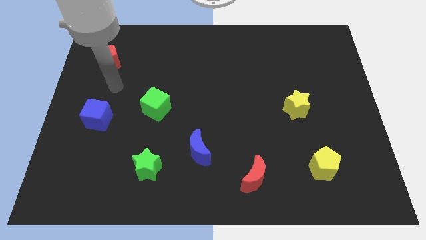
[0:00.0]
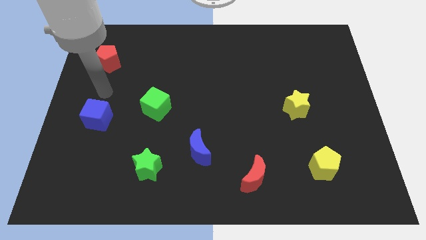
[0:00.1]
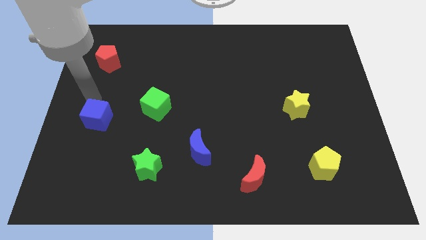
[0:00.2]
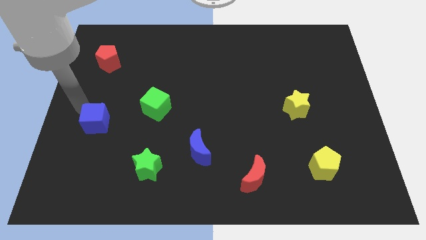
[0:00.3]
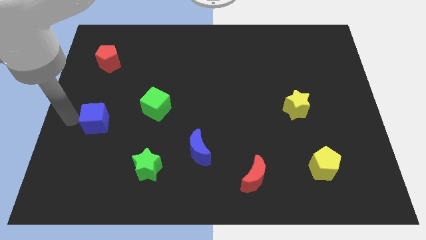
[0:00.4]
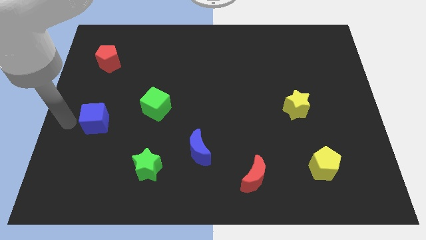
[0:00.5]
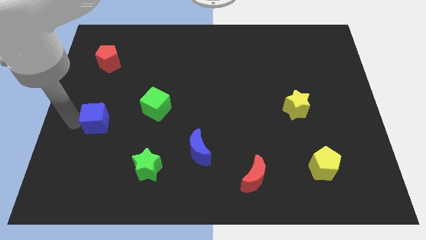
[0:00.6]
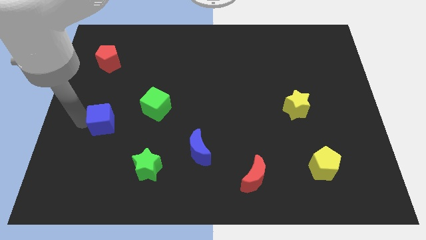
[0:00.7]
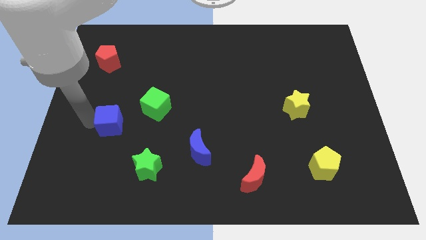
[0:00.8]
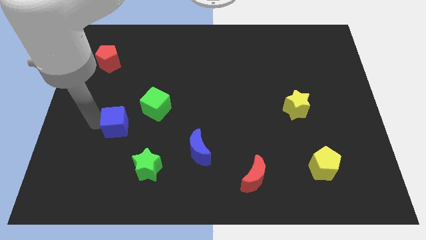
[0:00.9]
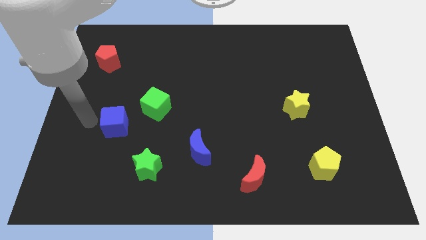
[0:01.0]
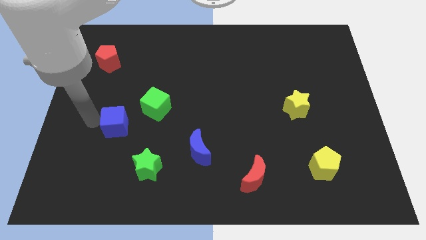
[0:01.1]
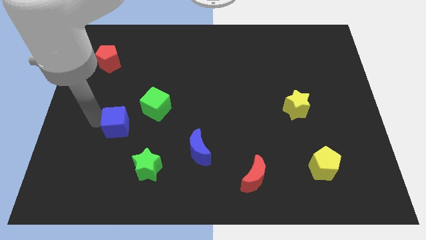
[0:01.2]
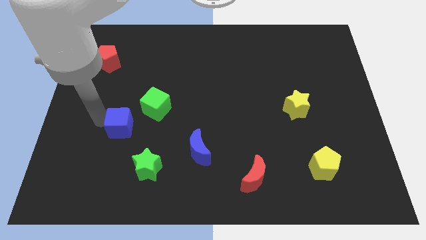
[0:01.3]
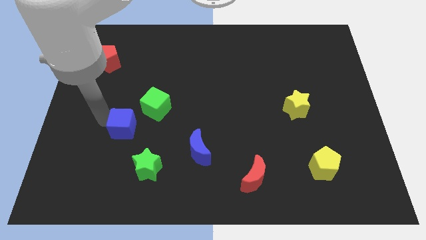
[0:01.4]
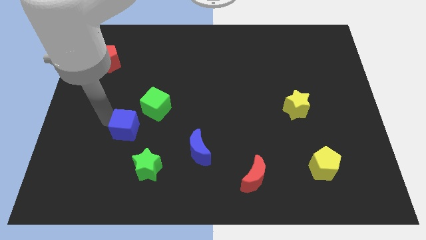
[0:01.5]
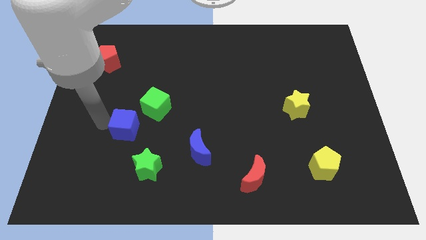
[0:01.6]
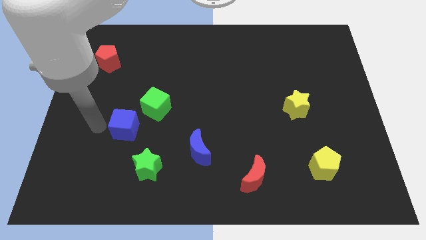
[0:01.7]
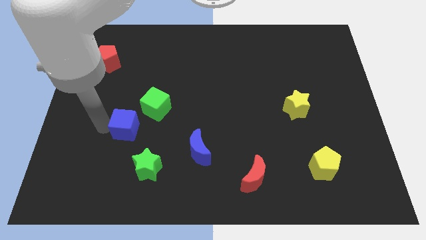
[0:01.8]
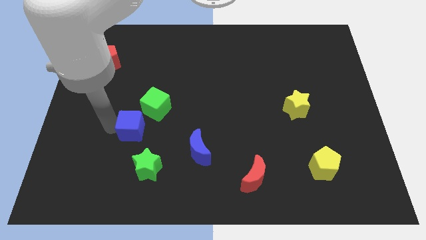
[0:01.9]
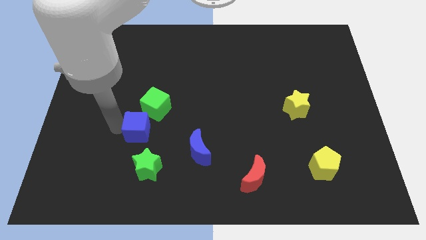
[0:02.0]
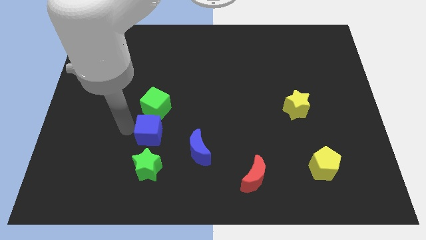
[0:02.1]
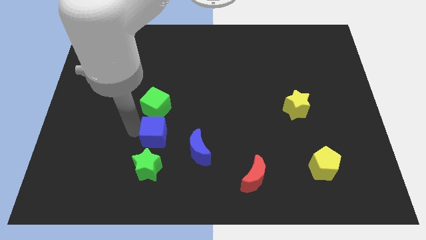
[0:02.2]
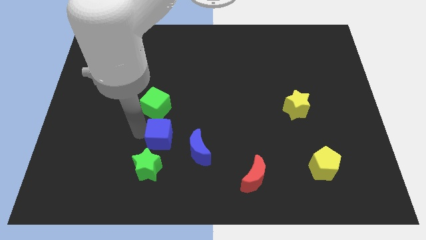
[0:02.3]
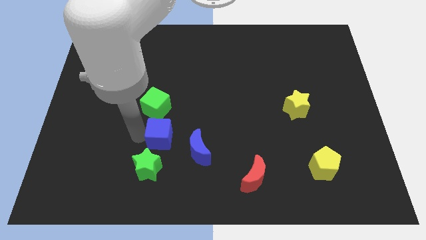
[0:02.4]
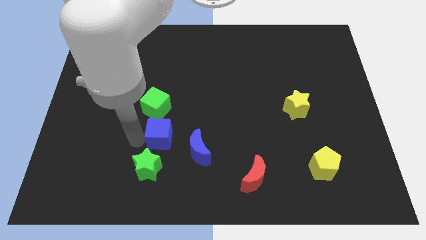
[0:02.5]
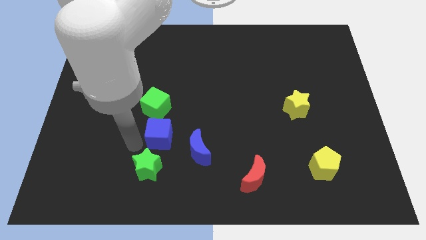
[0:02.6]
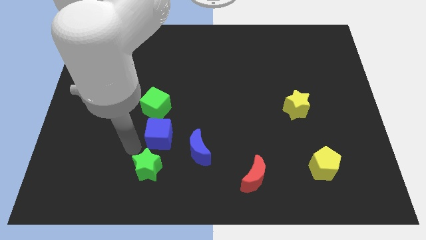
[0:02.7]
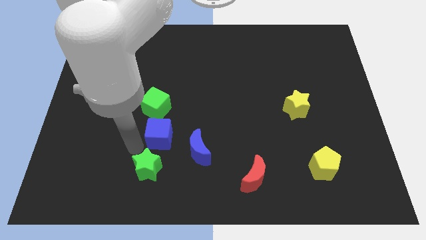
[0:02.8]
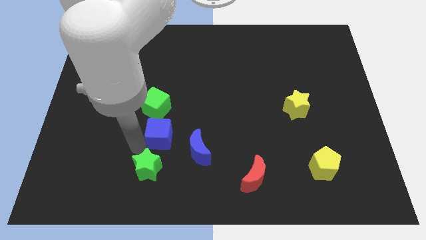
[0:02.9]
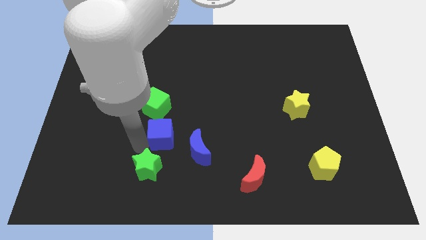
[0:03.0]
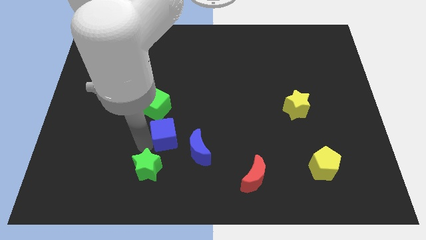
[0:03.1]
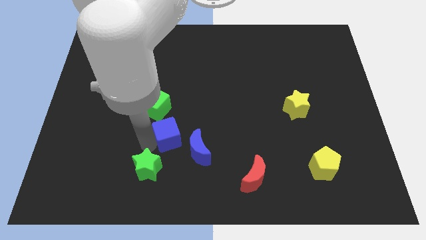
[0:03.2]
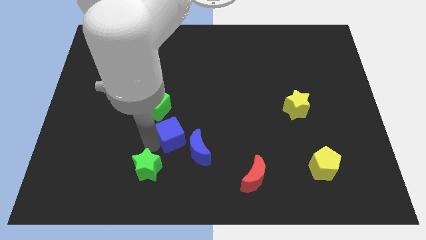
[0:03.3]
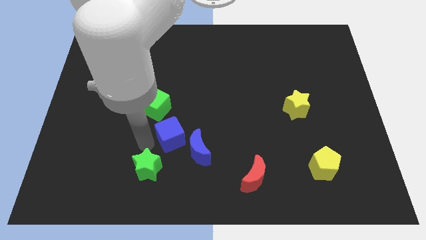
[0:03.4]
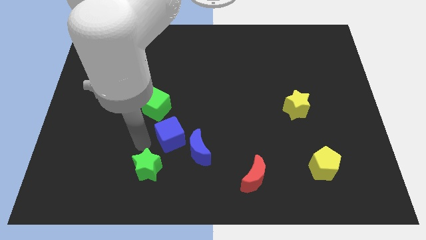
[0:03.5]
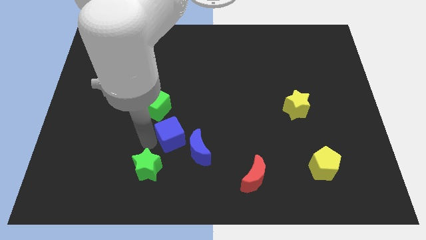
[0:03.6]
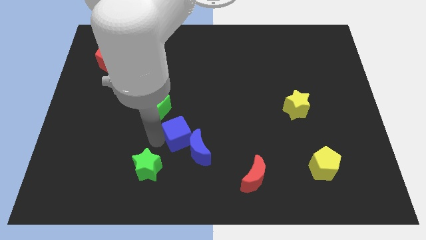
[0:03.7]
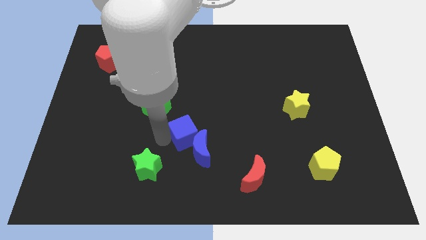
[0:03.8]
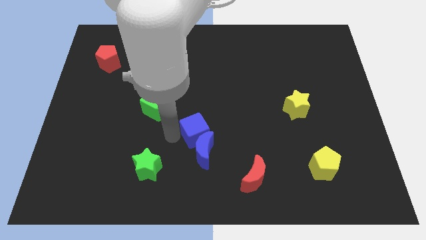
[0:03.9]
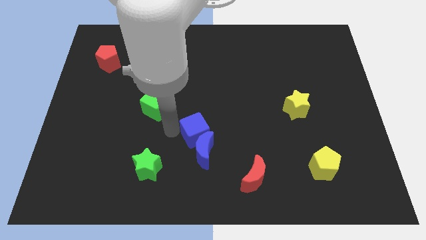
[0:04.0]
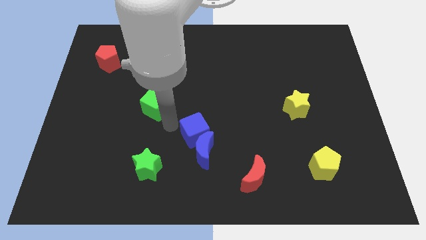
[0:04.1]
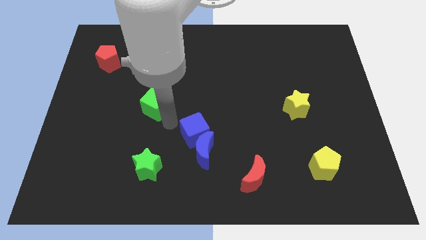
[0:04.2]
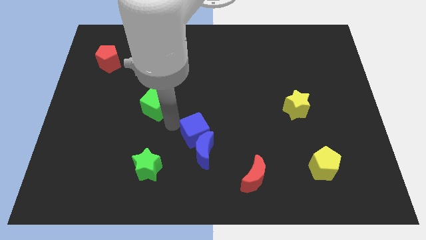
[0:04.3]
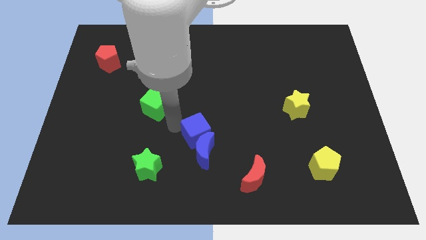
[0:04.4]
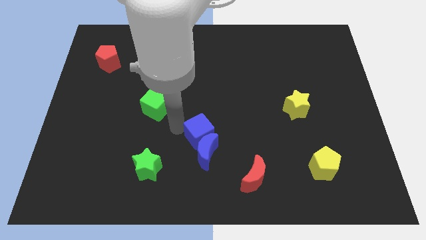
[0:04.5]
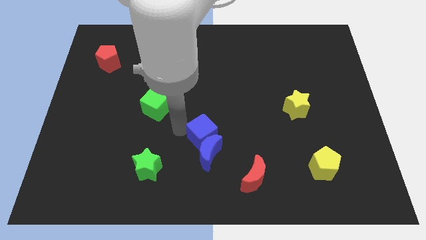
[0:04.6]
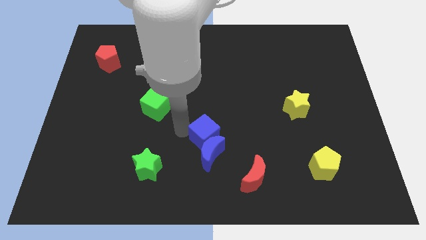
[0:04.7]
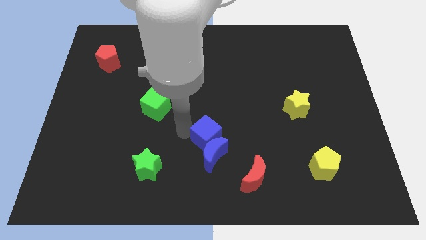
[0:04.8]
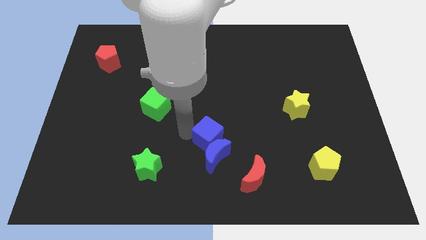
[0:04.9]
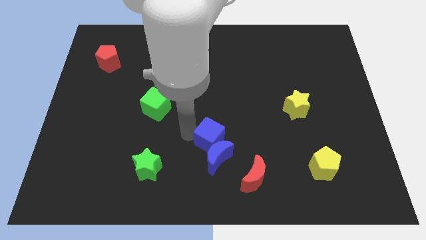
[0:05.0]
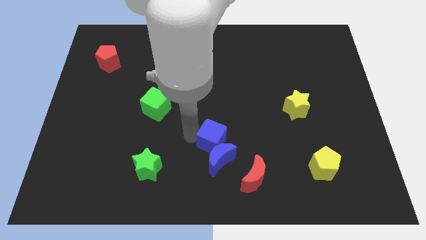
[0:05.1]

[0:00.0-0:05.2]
put the blue cube to the top left of the red moon

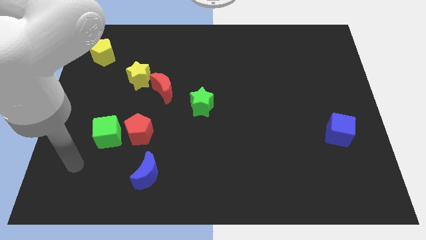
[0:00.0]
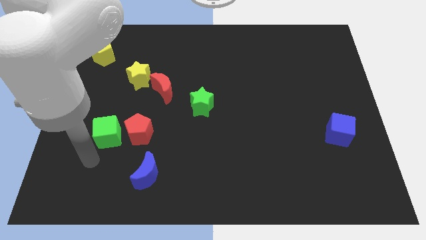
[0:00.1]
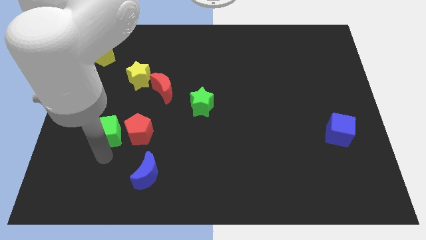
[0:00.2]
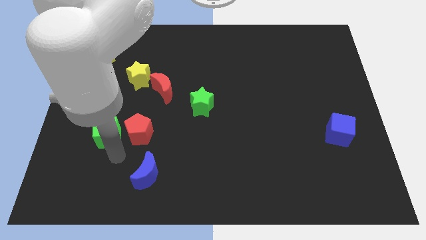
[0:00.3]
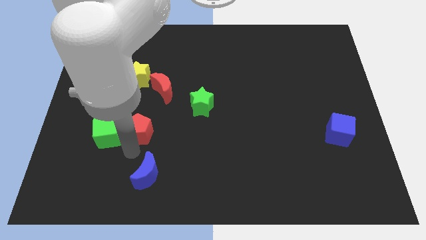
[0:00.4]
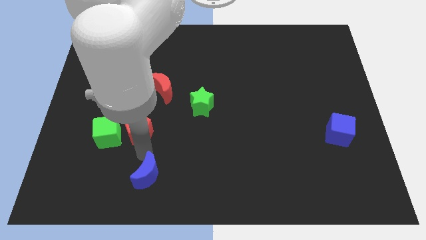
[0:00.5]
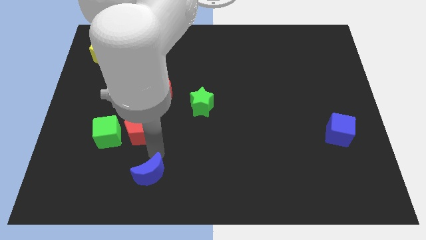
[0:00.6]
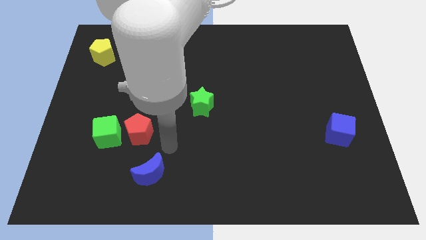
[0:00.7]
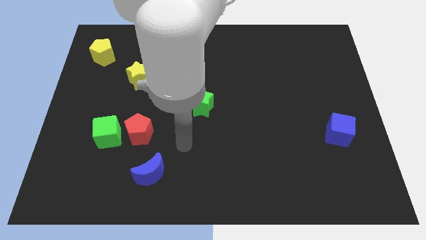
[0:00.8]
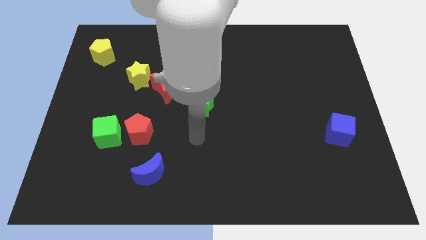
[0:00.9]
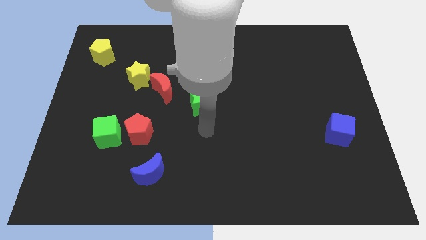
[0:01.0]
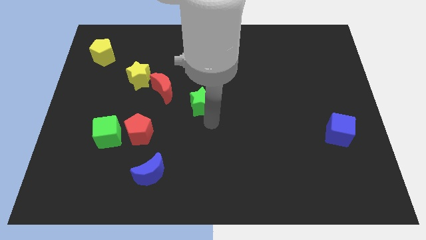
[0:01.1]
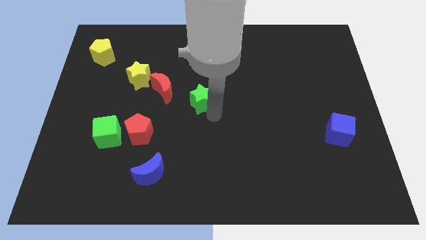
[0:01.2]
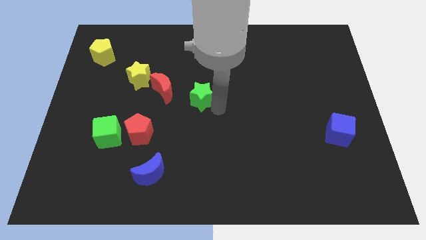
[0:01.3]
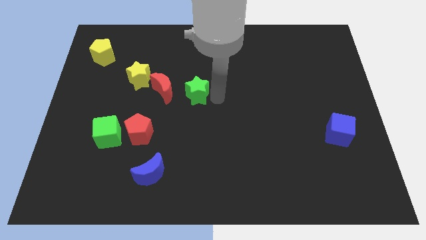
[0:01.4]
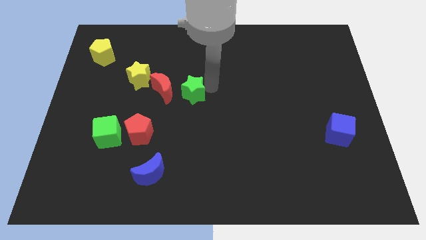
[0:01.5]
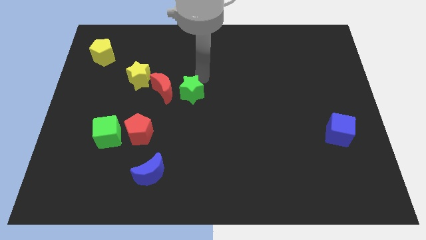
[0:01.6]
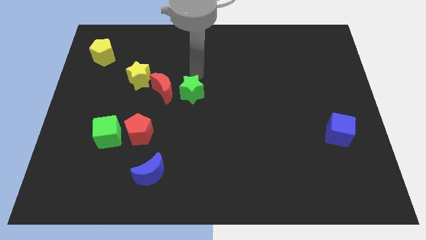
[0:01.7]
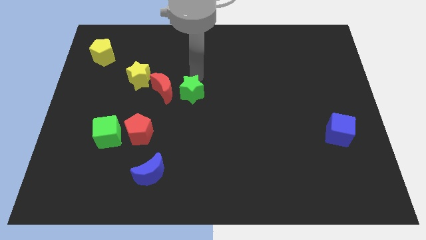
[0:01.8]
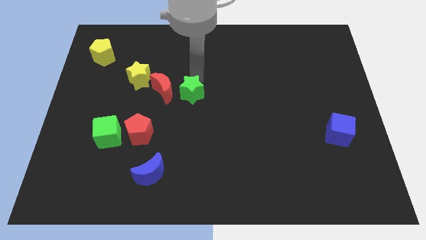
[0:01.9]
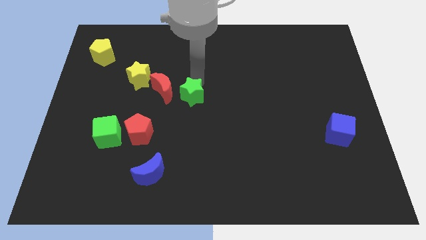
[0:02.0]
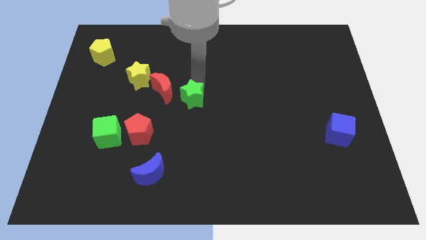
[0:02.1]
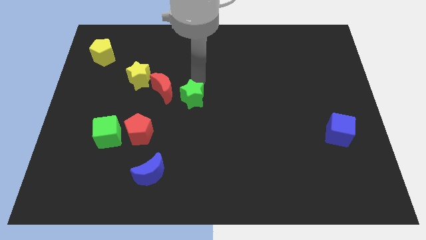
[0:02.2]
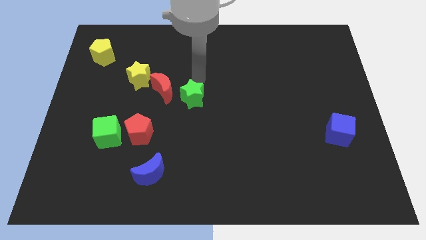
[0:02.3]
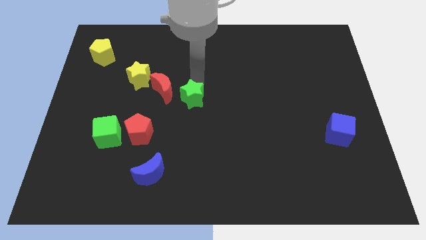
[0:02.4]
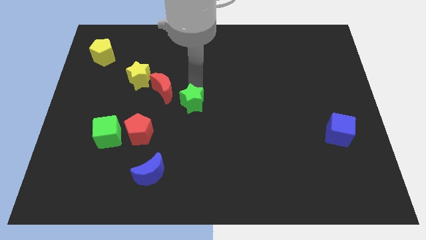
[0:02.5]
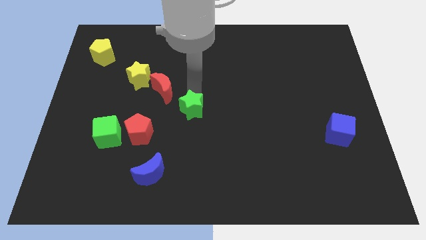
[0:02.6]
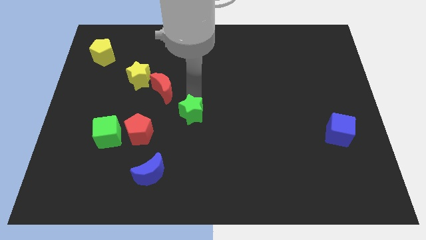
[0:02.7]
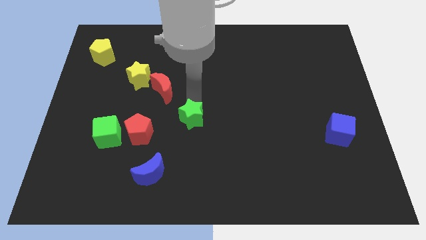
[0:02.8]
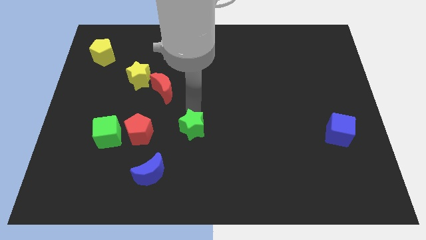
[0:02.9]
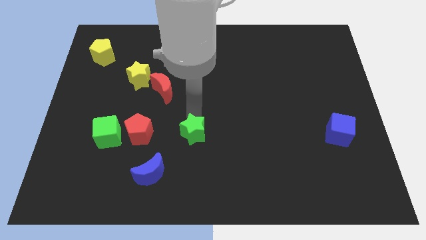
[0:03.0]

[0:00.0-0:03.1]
move the green star to the top right of the blue moon
